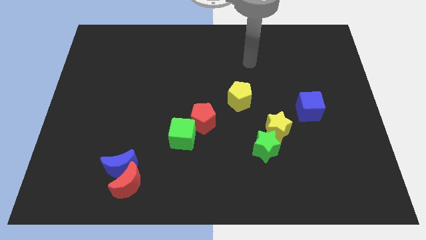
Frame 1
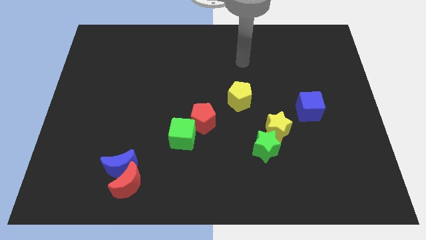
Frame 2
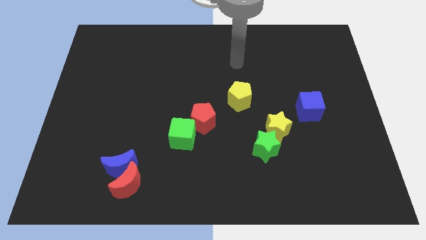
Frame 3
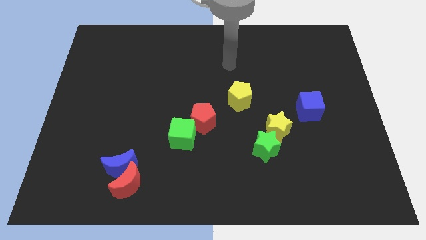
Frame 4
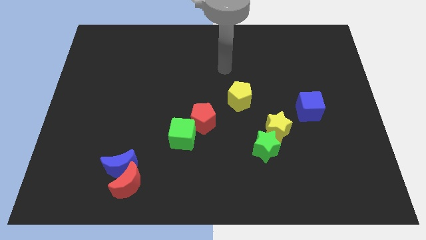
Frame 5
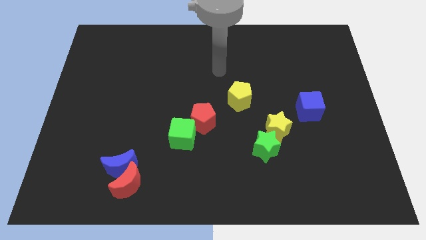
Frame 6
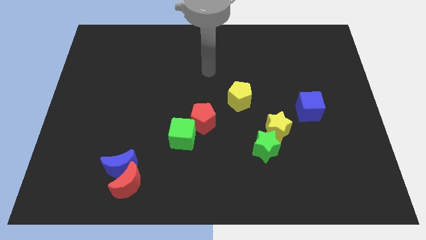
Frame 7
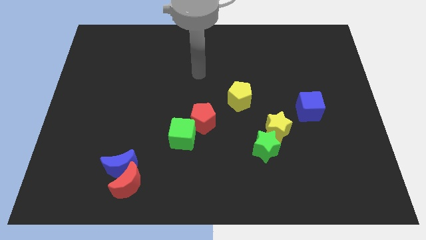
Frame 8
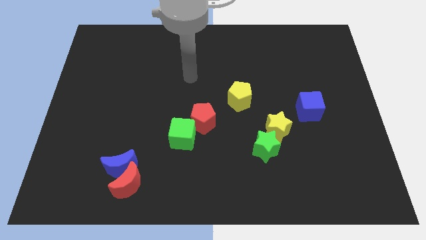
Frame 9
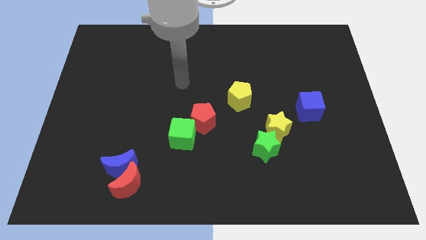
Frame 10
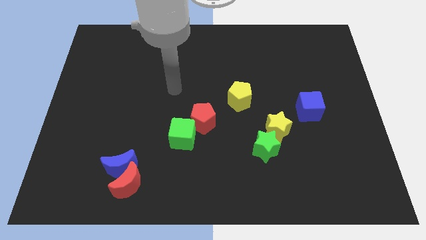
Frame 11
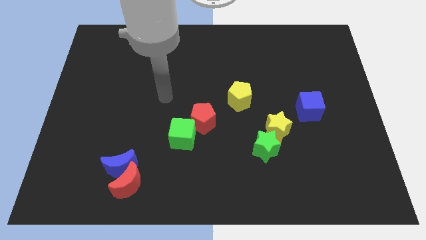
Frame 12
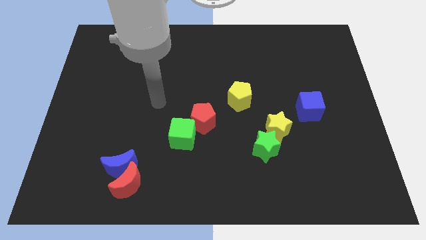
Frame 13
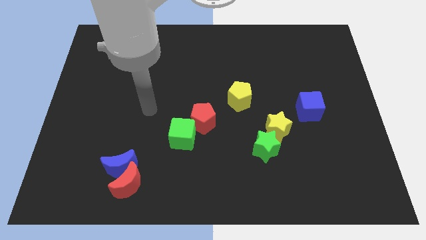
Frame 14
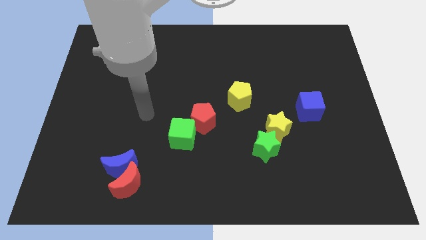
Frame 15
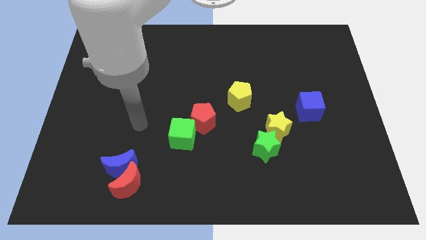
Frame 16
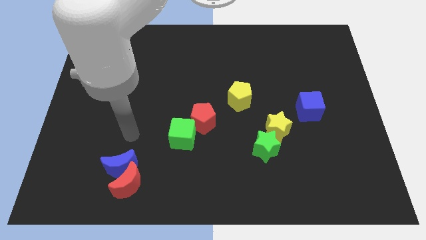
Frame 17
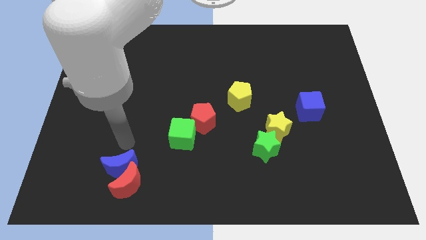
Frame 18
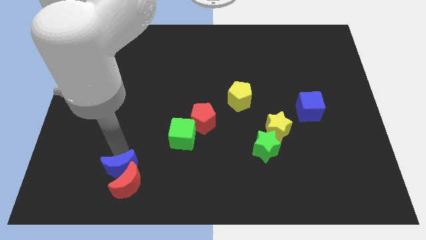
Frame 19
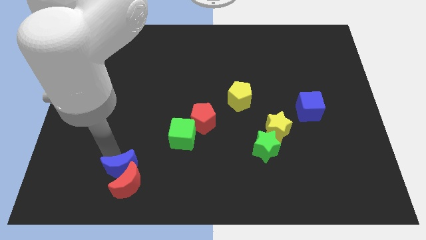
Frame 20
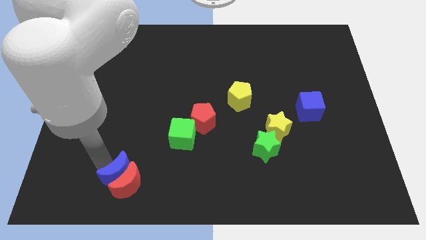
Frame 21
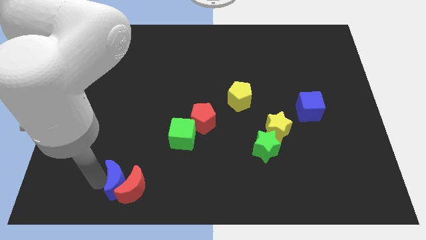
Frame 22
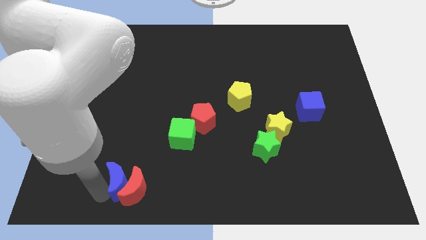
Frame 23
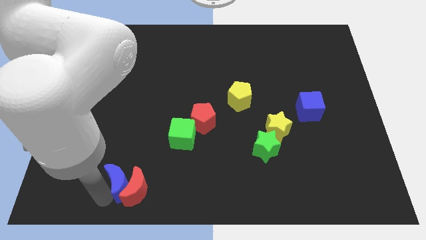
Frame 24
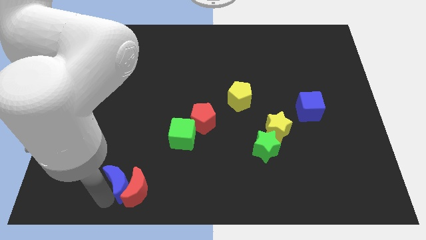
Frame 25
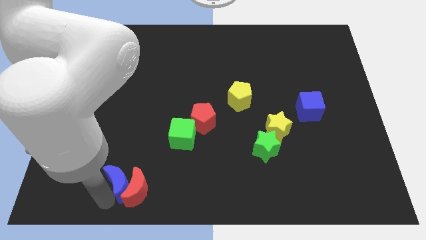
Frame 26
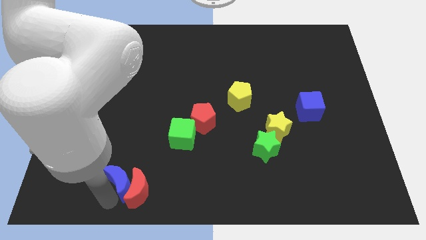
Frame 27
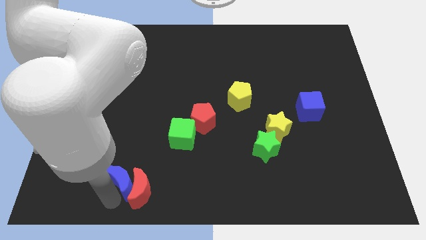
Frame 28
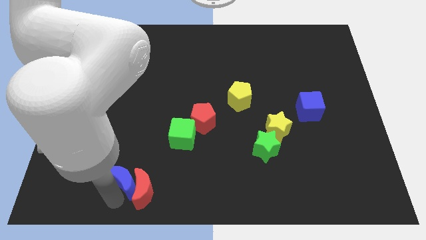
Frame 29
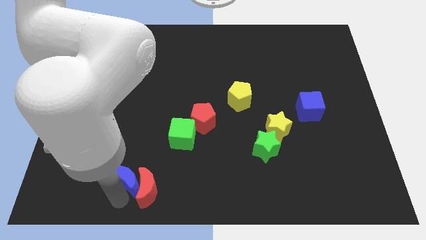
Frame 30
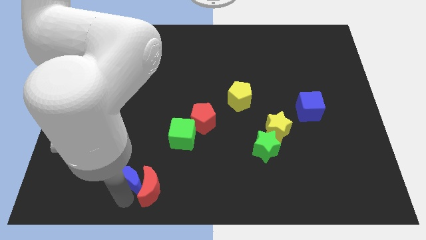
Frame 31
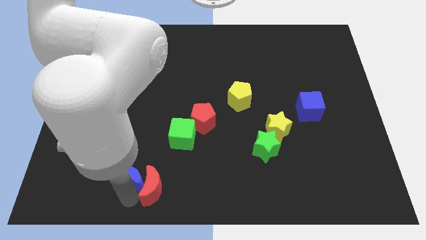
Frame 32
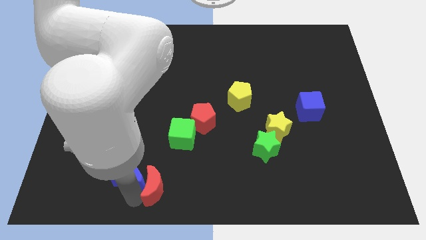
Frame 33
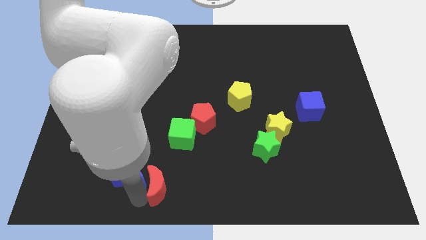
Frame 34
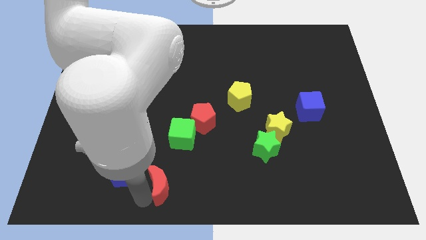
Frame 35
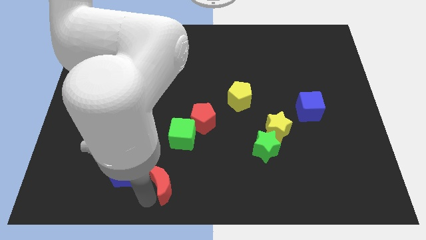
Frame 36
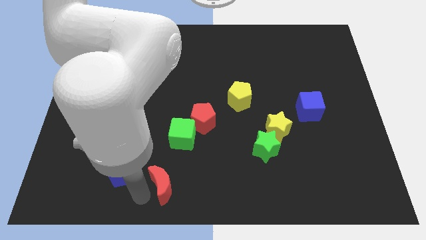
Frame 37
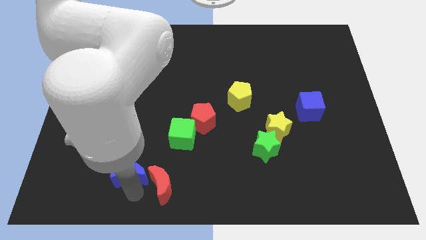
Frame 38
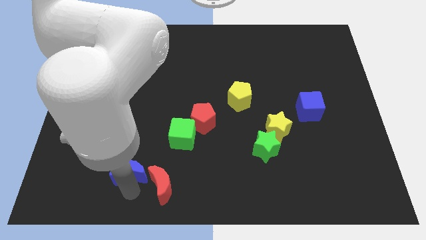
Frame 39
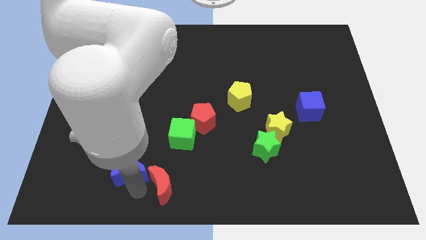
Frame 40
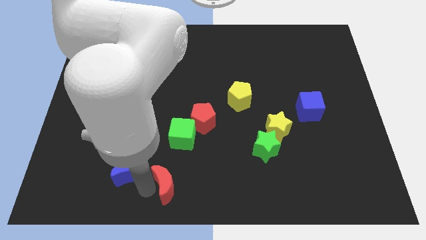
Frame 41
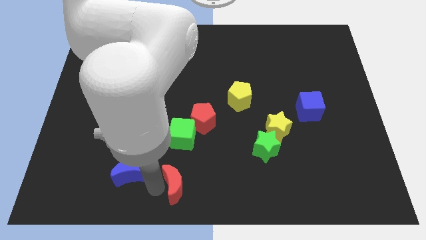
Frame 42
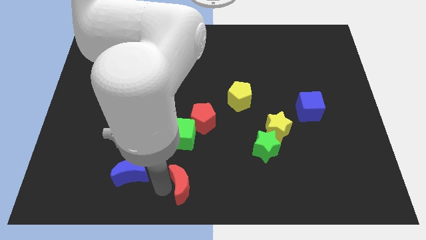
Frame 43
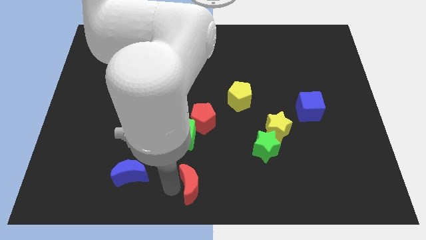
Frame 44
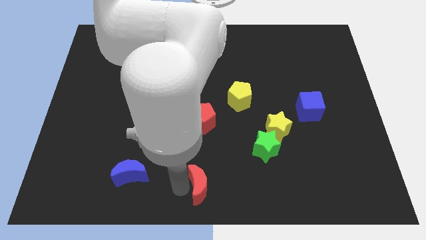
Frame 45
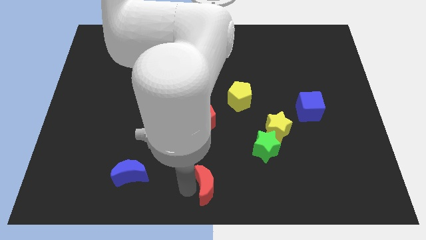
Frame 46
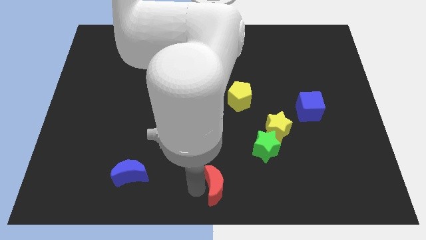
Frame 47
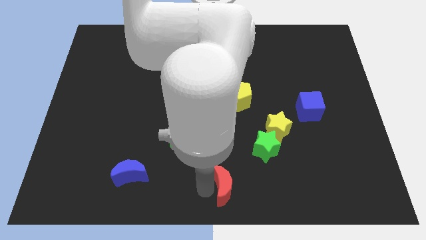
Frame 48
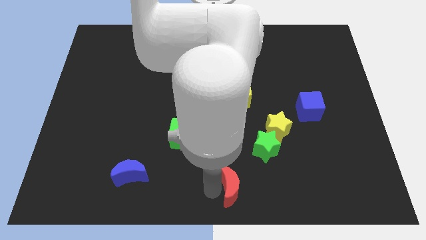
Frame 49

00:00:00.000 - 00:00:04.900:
move the red moon right

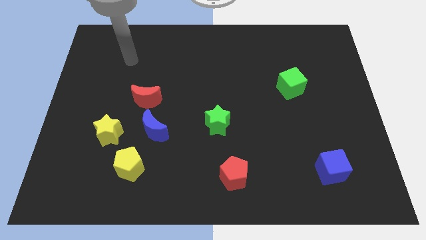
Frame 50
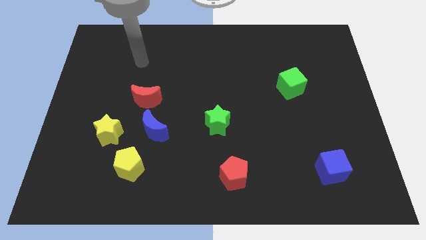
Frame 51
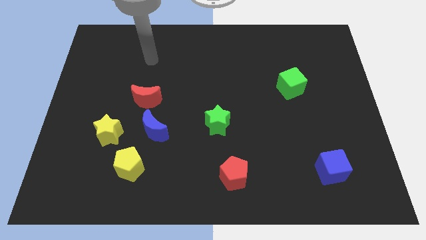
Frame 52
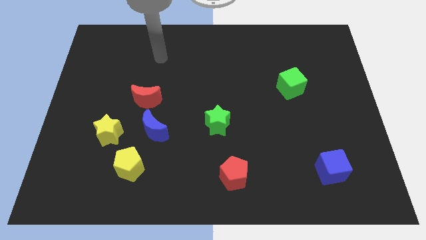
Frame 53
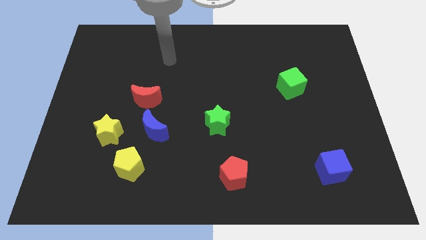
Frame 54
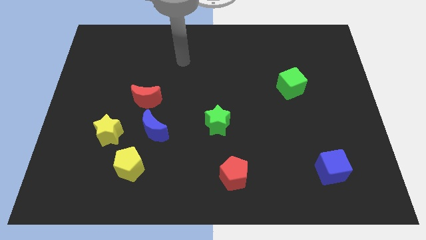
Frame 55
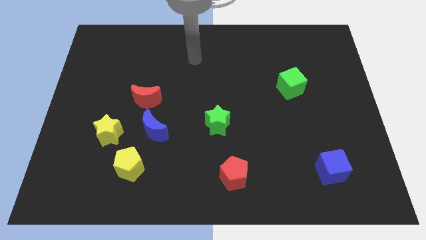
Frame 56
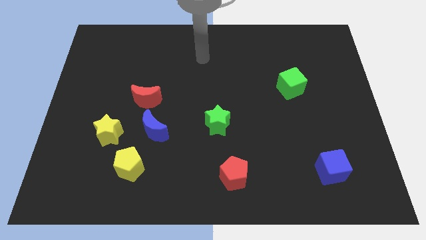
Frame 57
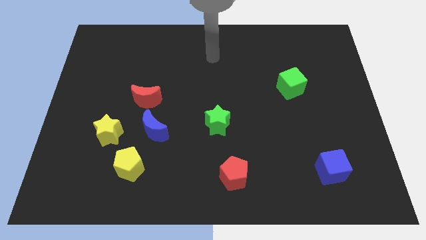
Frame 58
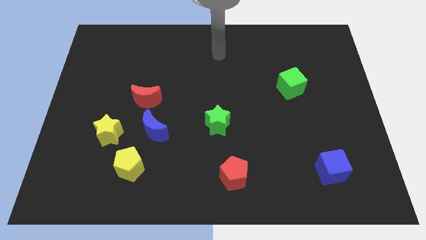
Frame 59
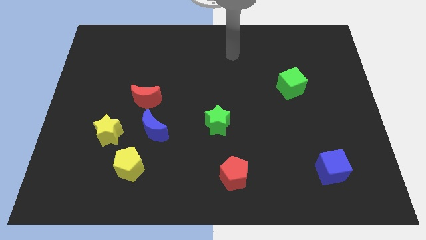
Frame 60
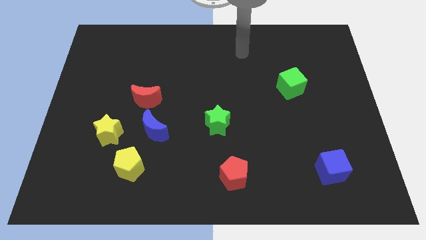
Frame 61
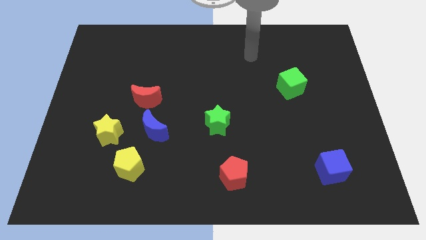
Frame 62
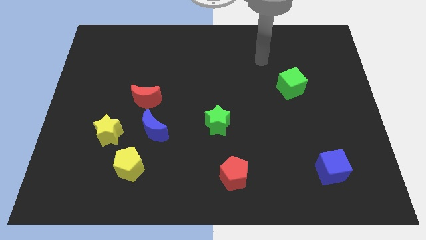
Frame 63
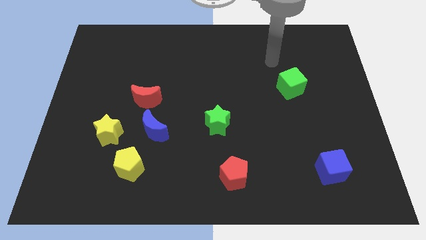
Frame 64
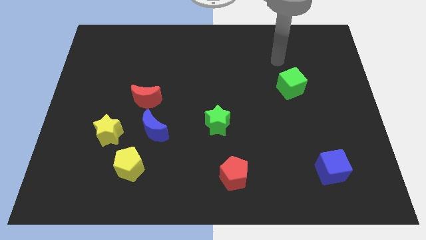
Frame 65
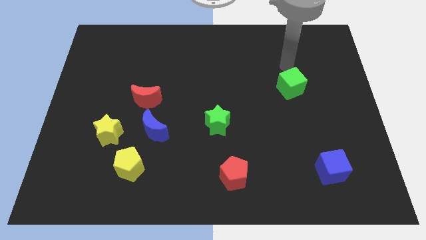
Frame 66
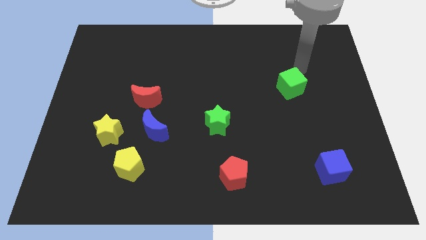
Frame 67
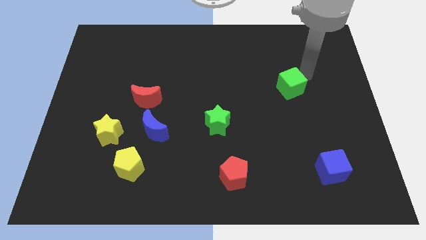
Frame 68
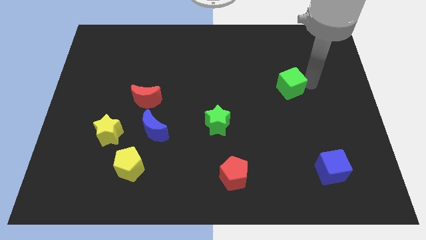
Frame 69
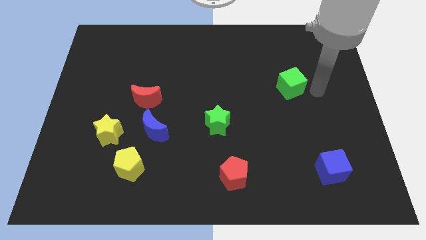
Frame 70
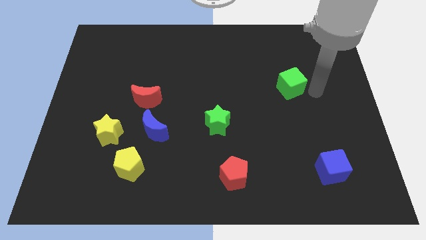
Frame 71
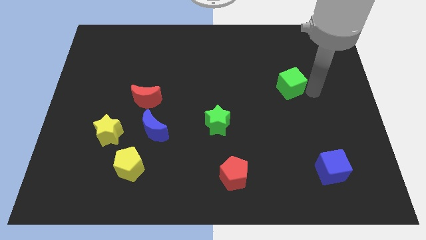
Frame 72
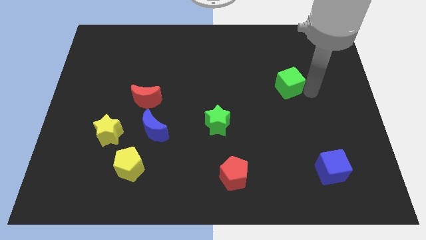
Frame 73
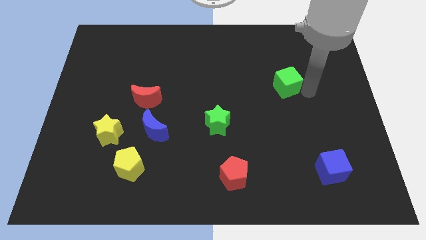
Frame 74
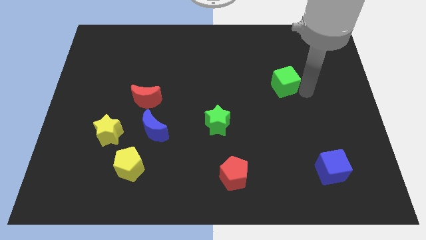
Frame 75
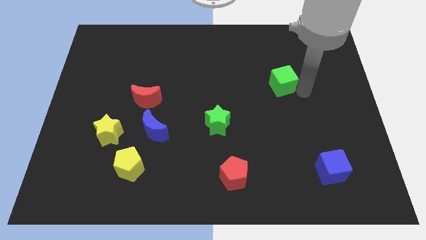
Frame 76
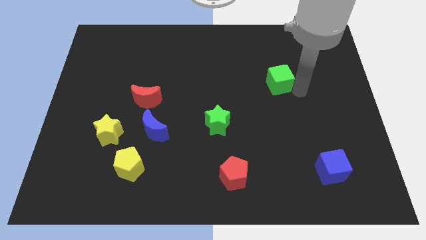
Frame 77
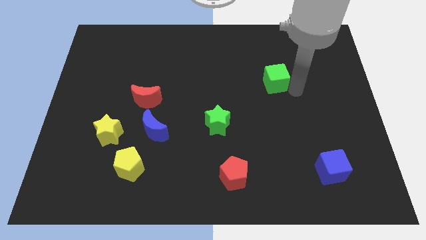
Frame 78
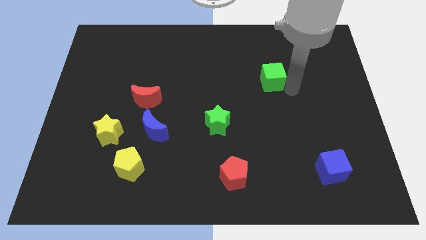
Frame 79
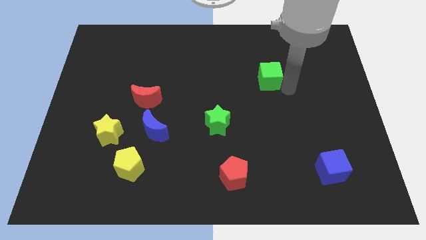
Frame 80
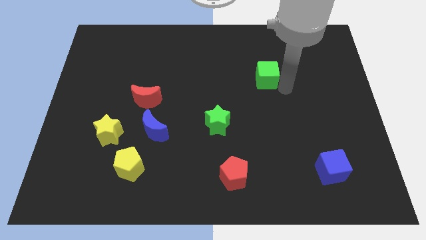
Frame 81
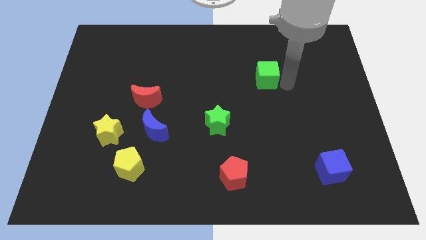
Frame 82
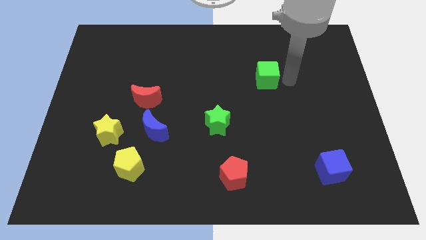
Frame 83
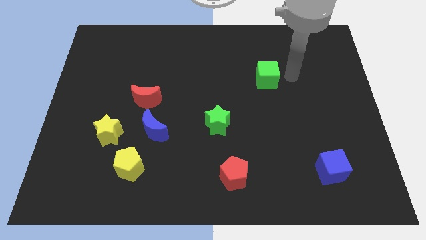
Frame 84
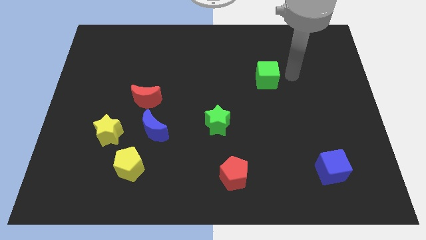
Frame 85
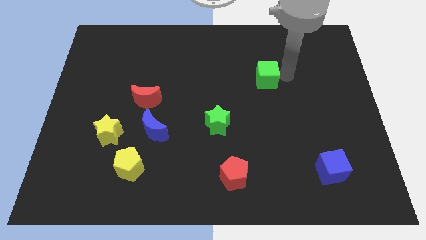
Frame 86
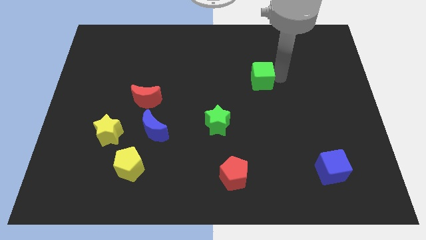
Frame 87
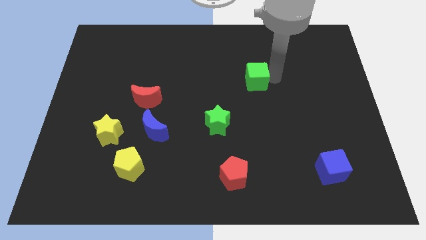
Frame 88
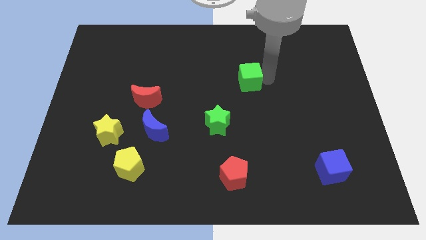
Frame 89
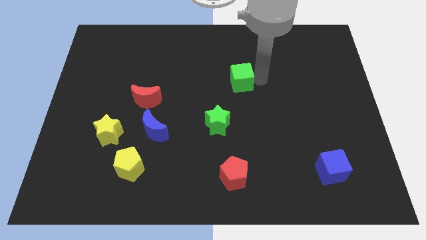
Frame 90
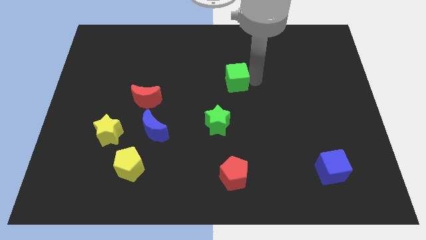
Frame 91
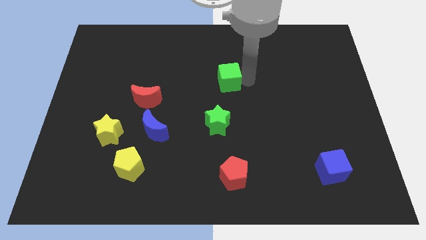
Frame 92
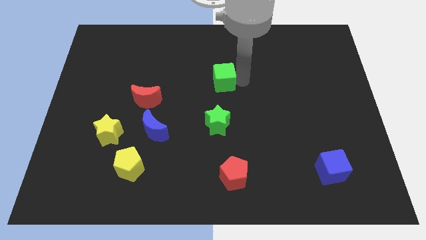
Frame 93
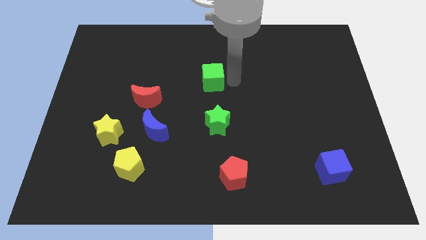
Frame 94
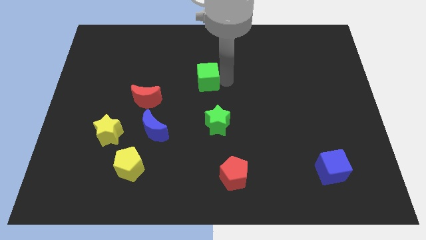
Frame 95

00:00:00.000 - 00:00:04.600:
push the green cube left
